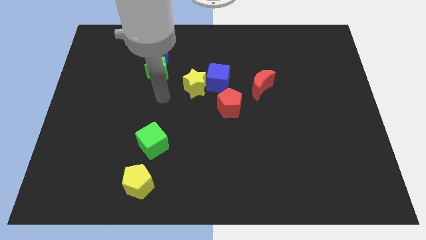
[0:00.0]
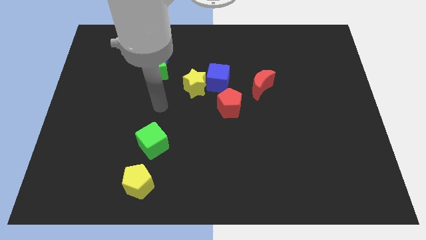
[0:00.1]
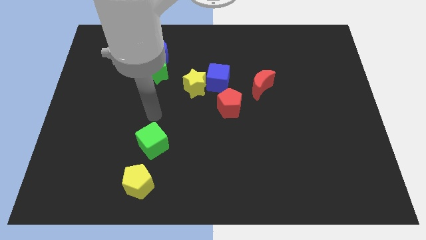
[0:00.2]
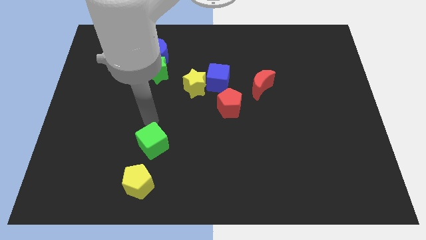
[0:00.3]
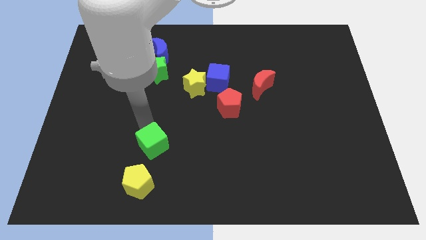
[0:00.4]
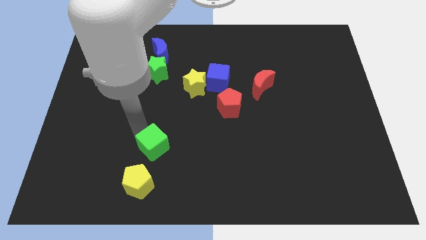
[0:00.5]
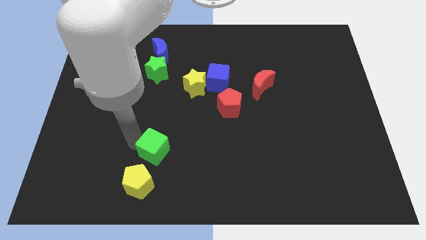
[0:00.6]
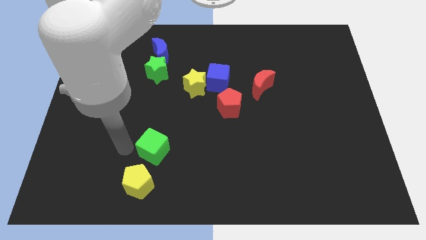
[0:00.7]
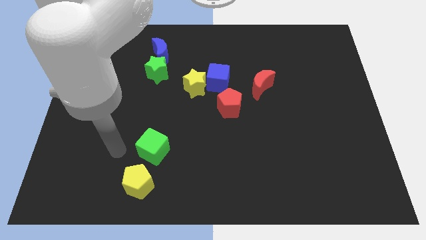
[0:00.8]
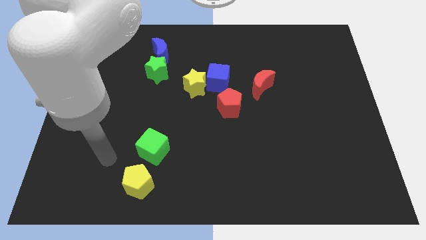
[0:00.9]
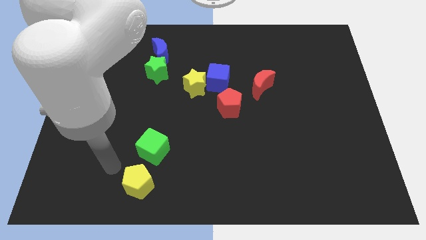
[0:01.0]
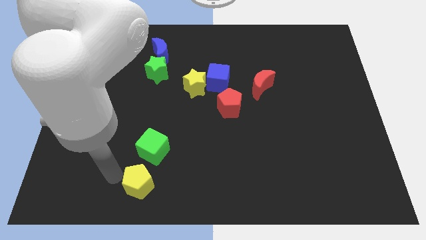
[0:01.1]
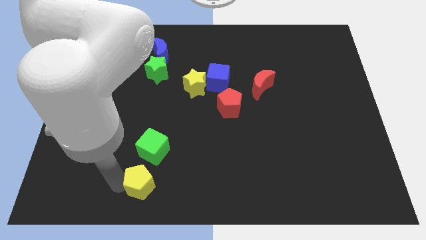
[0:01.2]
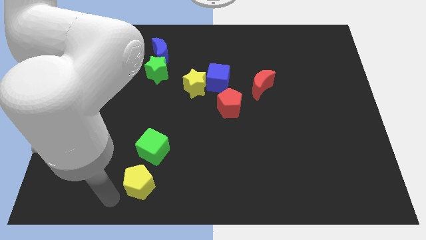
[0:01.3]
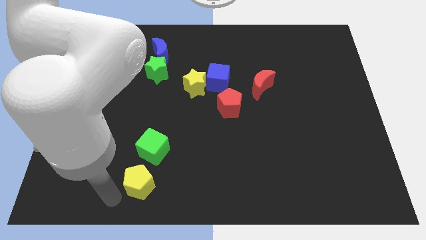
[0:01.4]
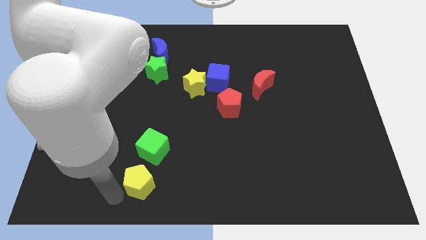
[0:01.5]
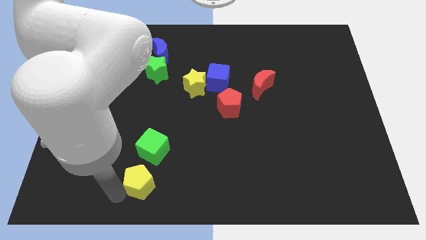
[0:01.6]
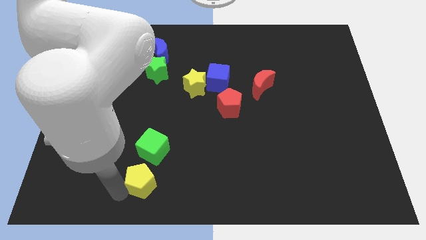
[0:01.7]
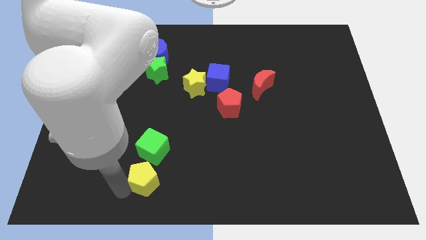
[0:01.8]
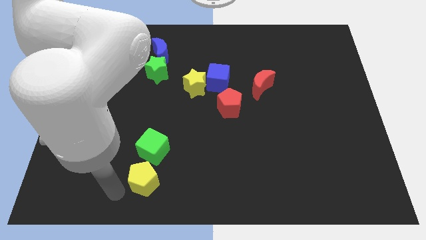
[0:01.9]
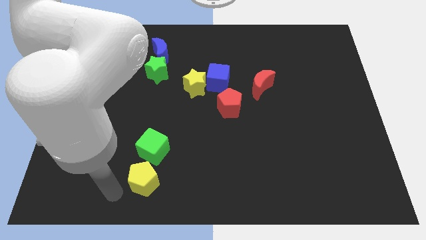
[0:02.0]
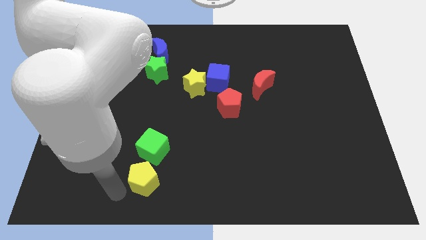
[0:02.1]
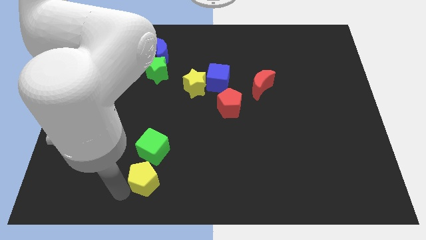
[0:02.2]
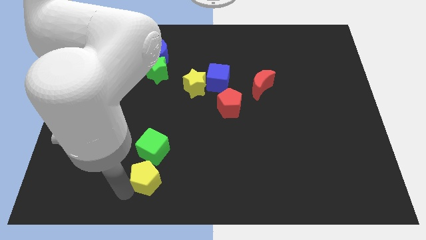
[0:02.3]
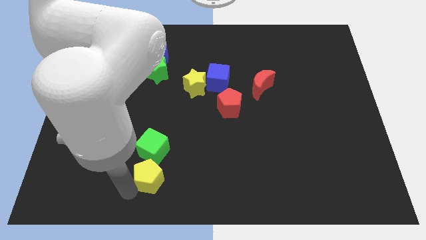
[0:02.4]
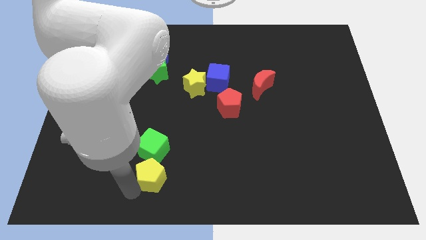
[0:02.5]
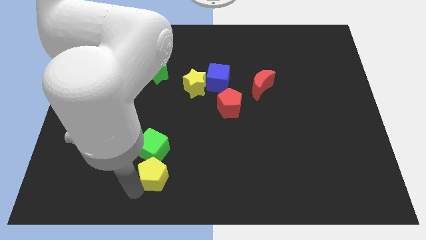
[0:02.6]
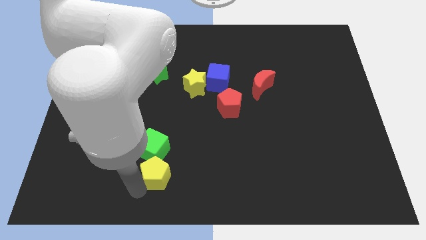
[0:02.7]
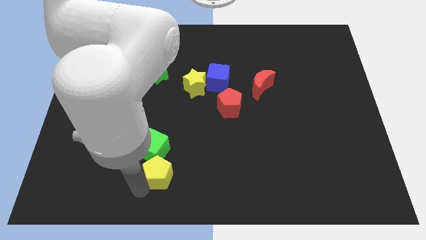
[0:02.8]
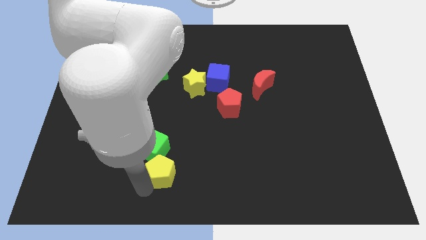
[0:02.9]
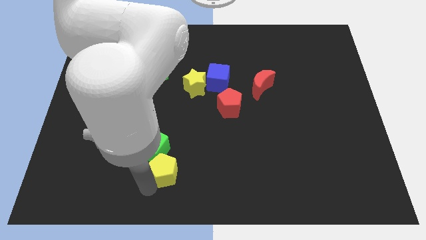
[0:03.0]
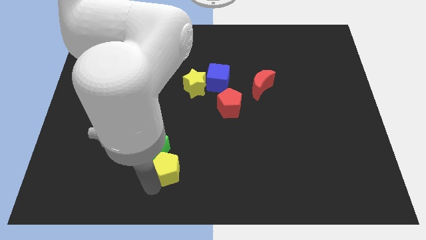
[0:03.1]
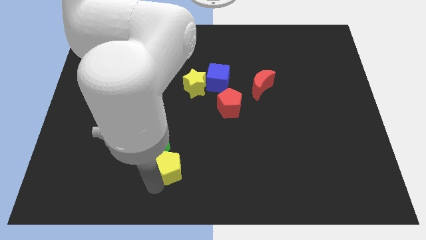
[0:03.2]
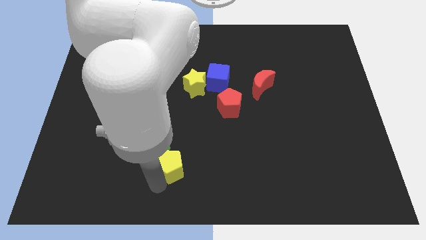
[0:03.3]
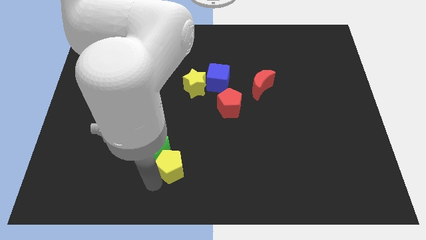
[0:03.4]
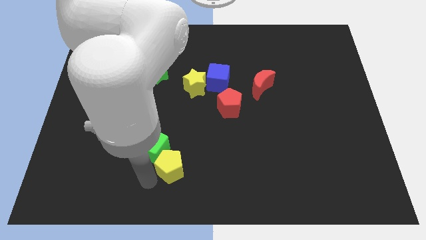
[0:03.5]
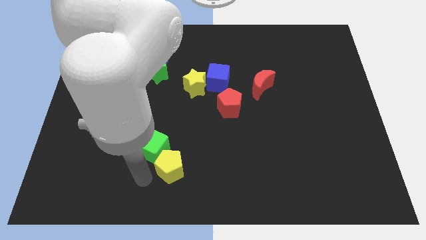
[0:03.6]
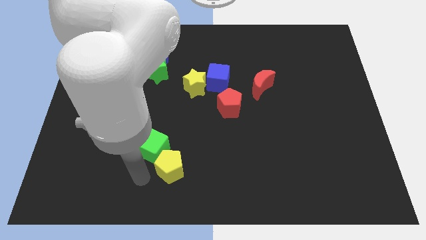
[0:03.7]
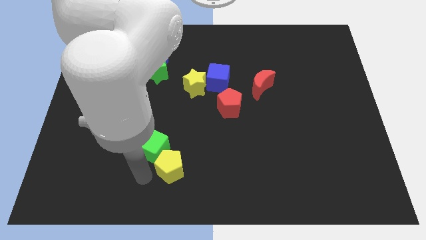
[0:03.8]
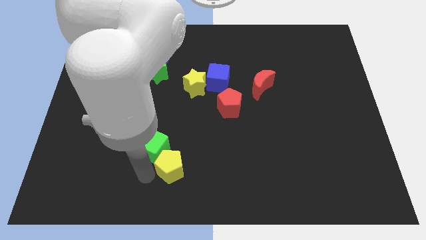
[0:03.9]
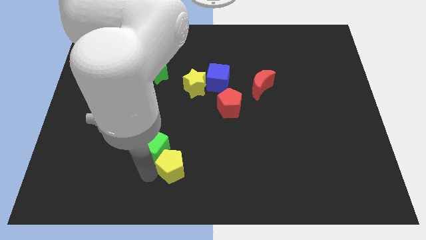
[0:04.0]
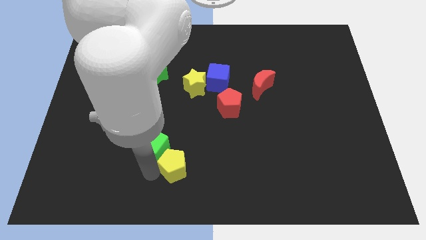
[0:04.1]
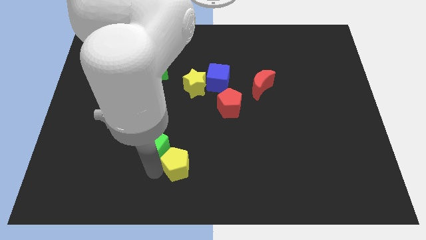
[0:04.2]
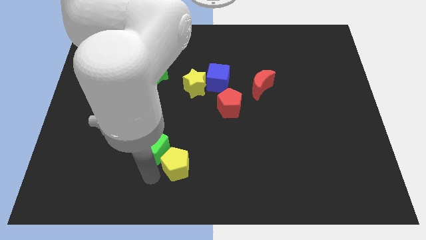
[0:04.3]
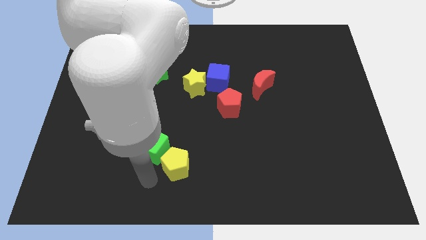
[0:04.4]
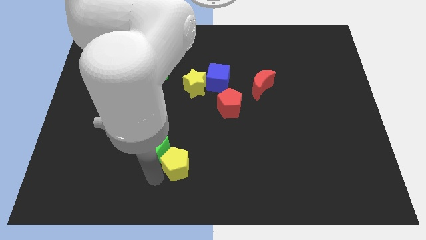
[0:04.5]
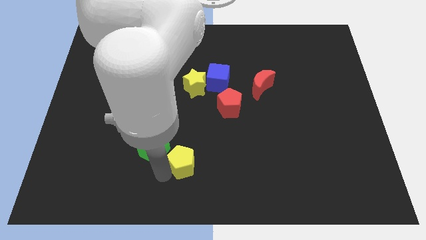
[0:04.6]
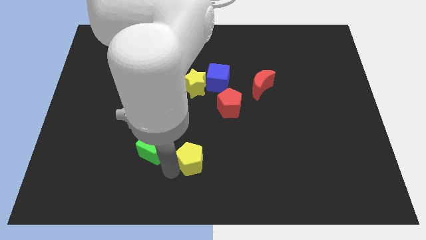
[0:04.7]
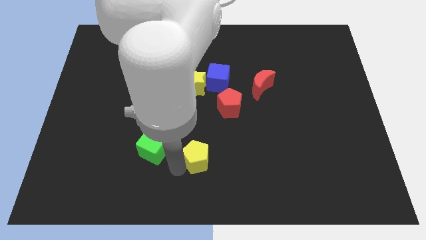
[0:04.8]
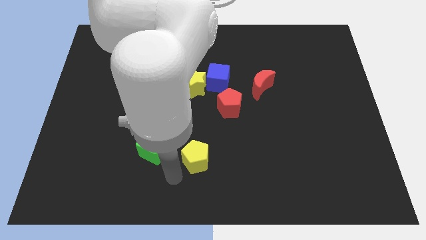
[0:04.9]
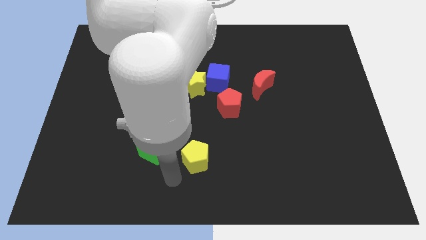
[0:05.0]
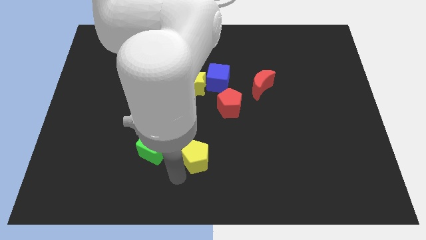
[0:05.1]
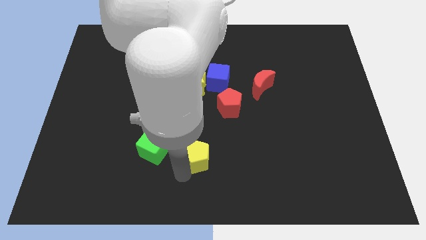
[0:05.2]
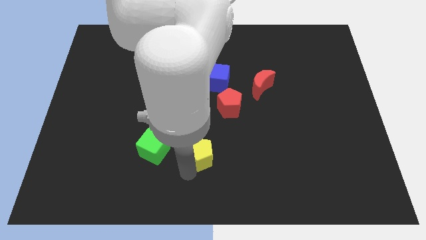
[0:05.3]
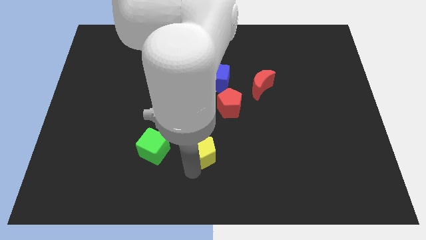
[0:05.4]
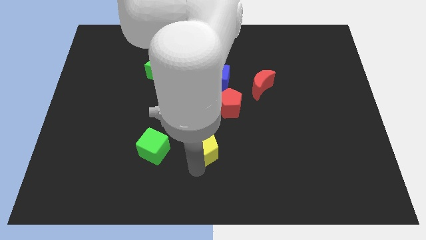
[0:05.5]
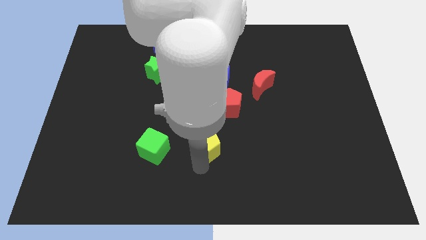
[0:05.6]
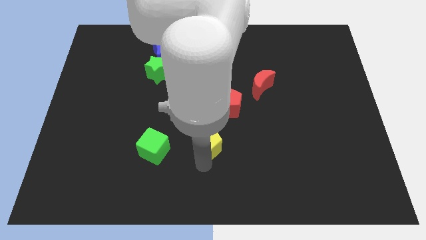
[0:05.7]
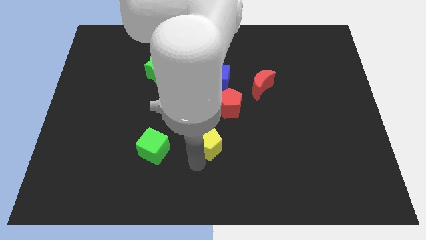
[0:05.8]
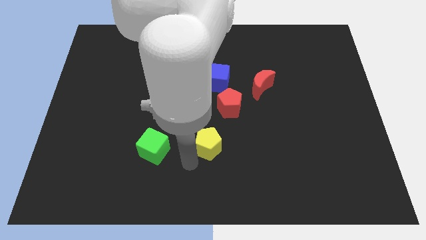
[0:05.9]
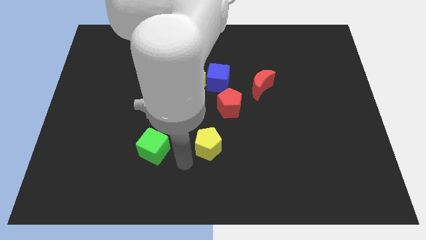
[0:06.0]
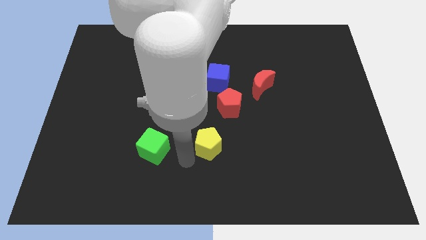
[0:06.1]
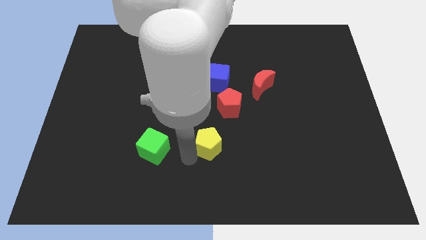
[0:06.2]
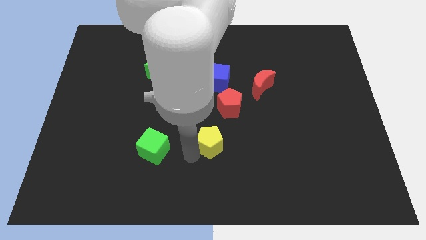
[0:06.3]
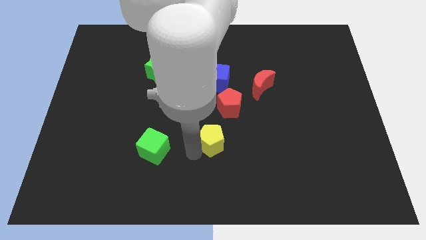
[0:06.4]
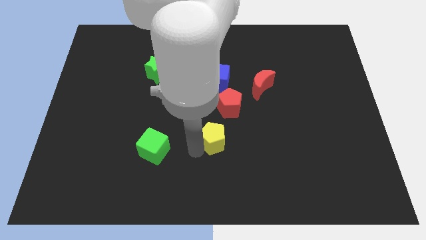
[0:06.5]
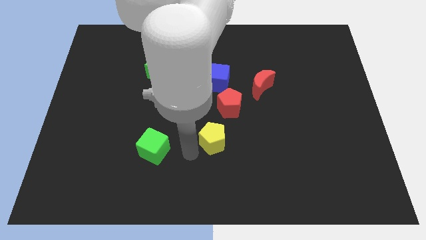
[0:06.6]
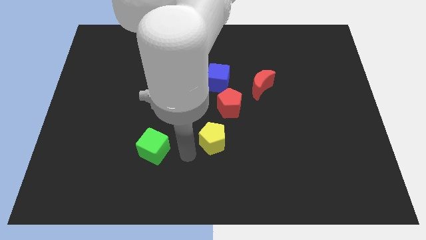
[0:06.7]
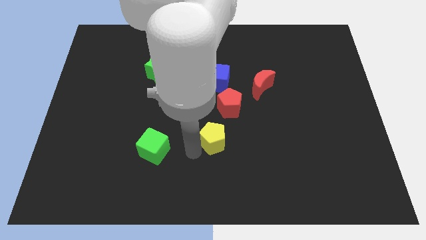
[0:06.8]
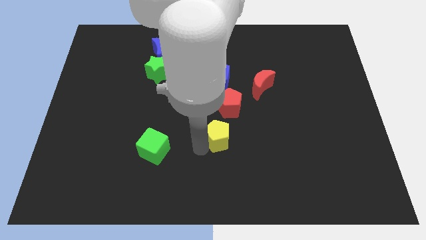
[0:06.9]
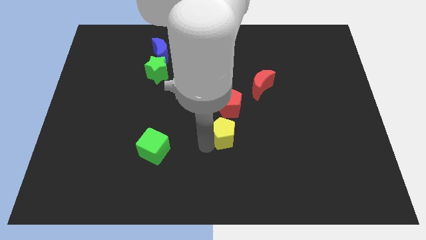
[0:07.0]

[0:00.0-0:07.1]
push the yellow pentagon diagonally upwards and right

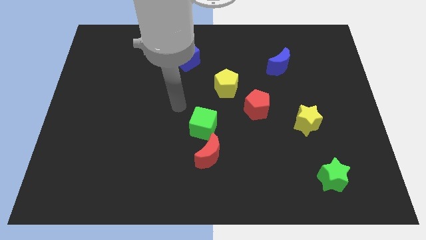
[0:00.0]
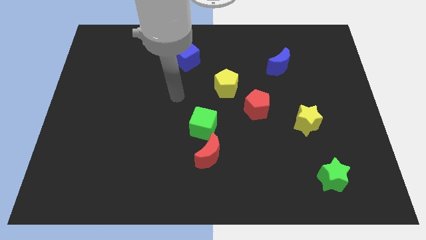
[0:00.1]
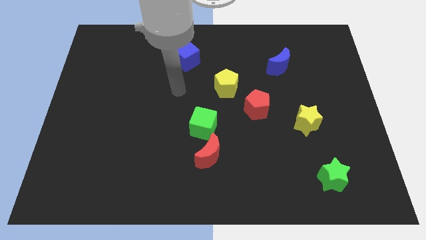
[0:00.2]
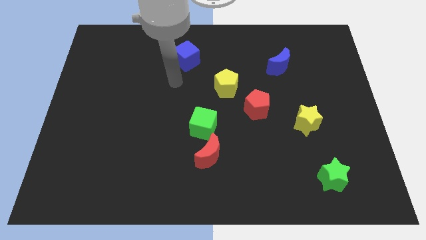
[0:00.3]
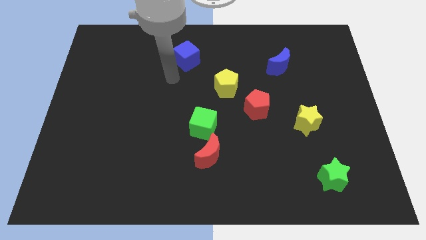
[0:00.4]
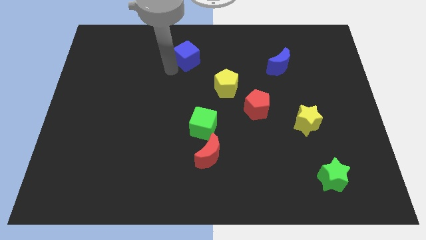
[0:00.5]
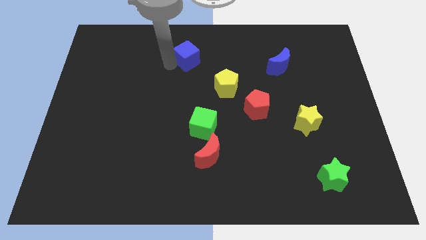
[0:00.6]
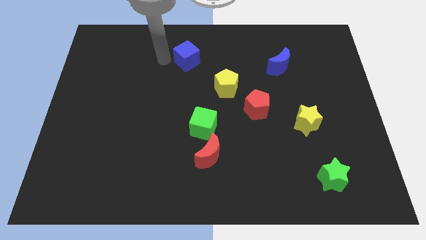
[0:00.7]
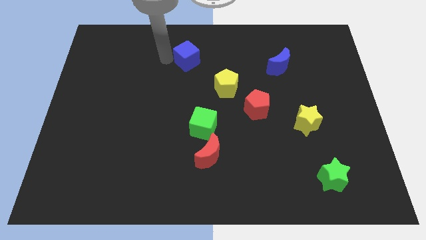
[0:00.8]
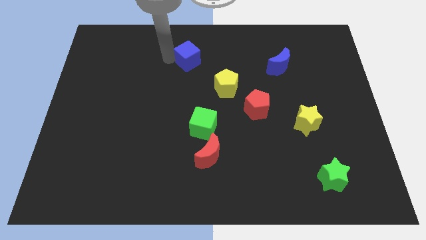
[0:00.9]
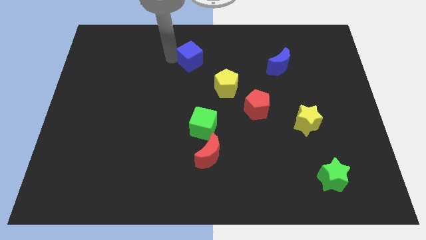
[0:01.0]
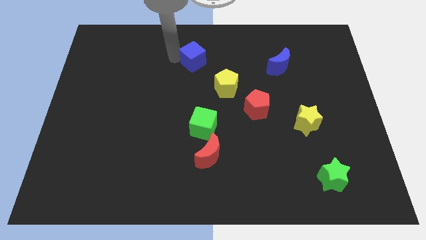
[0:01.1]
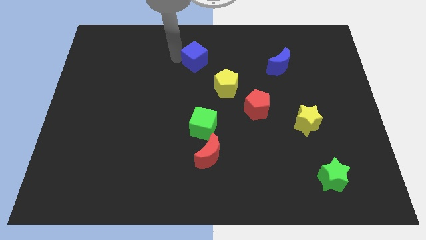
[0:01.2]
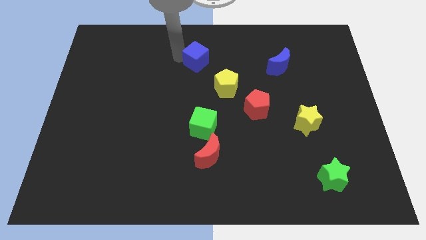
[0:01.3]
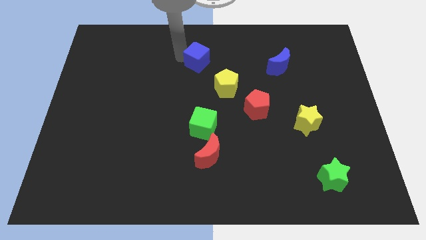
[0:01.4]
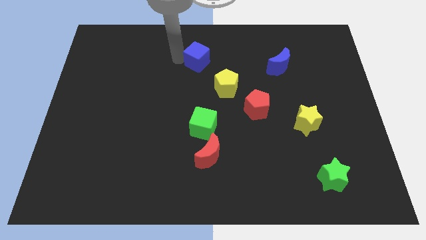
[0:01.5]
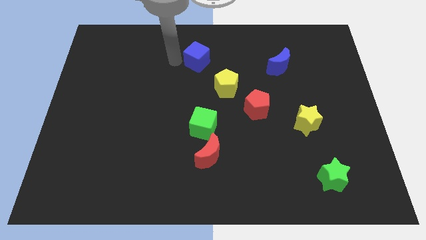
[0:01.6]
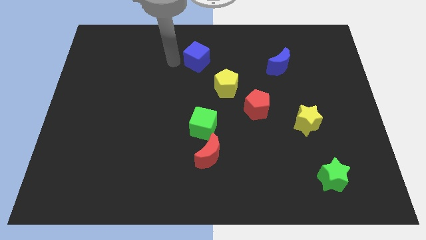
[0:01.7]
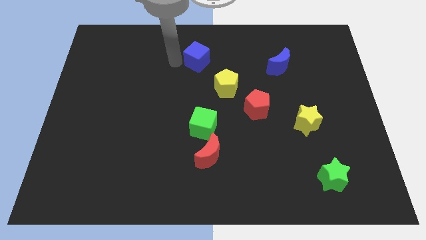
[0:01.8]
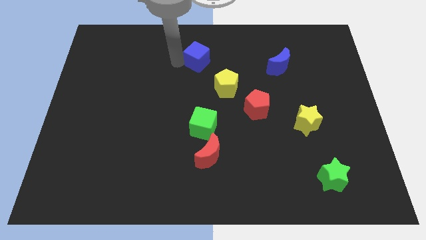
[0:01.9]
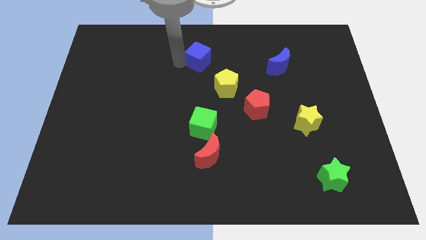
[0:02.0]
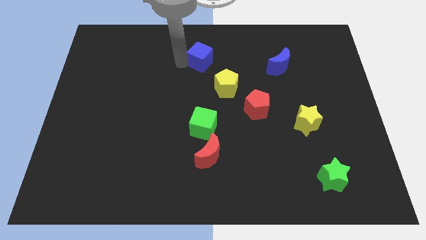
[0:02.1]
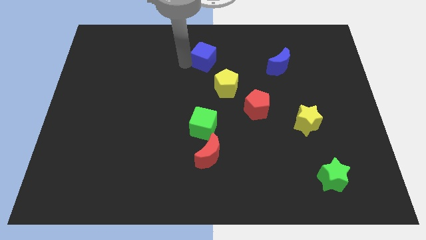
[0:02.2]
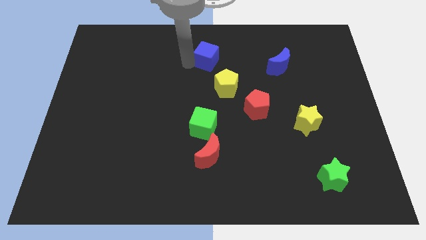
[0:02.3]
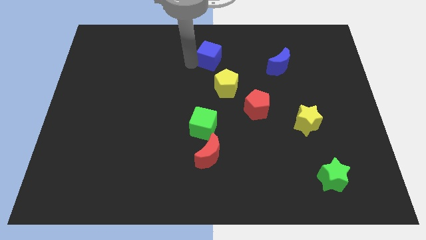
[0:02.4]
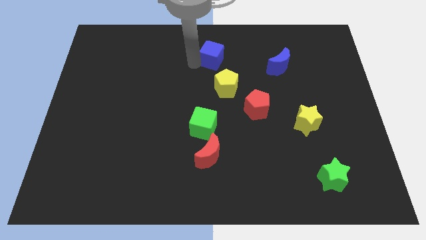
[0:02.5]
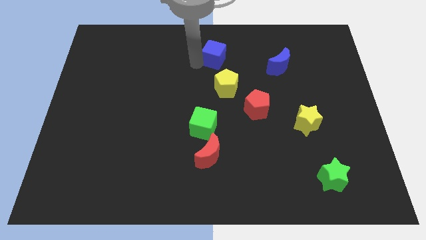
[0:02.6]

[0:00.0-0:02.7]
move the blue cube to the right somewhat
